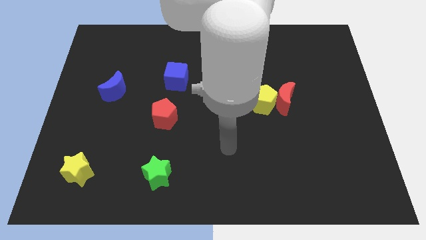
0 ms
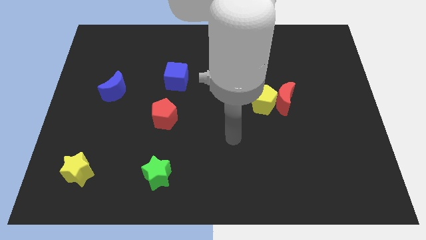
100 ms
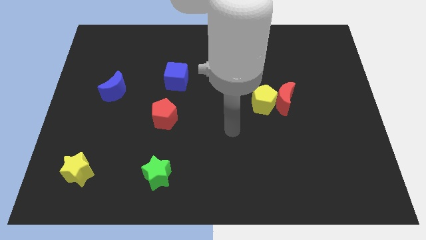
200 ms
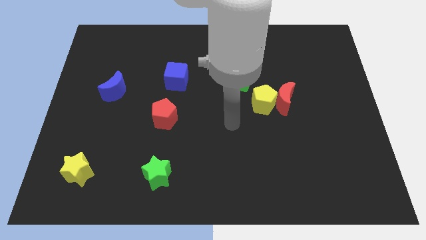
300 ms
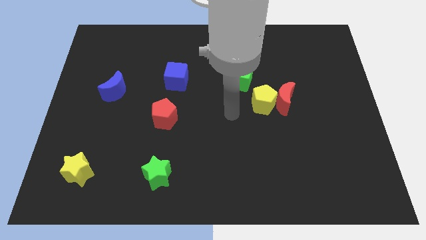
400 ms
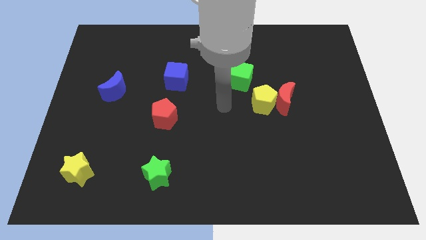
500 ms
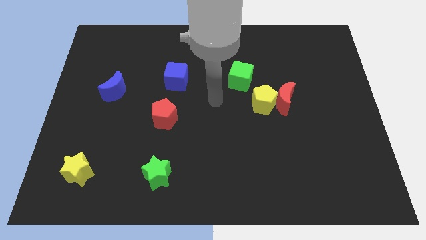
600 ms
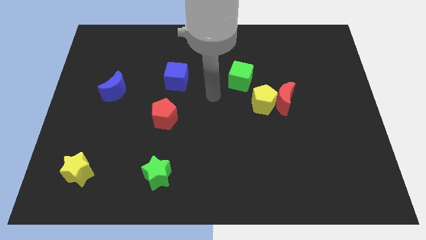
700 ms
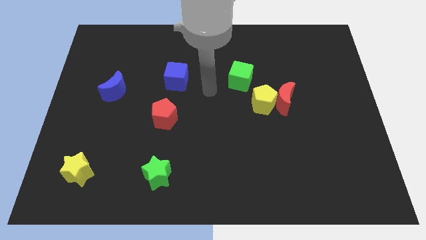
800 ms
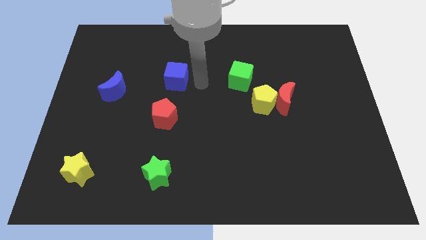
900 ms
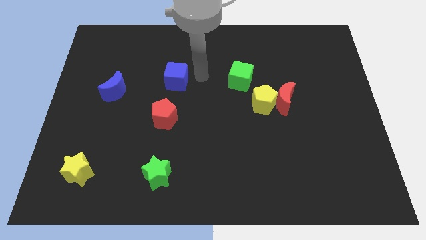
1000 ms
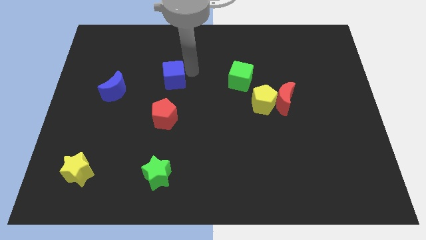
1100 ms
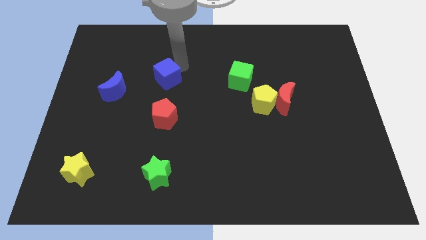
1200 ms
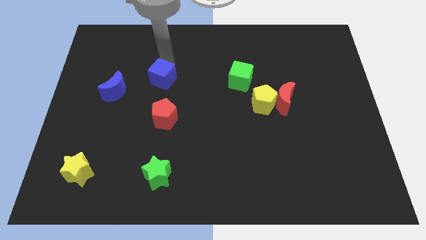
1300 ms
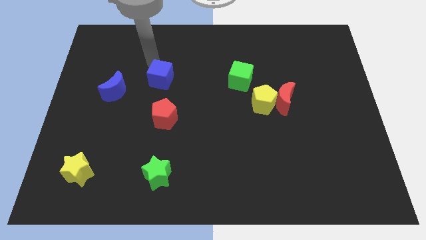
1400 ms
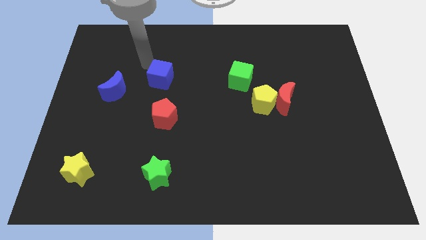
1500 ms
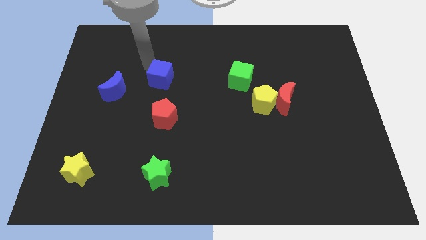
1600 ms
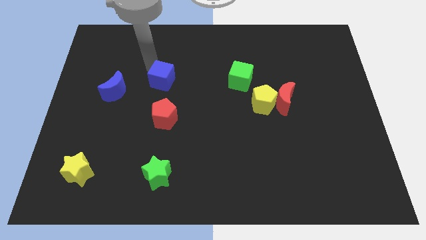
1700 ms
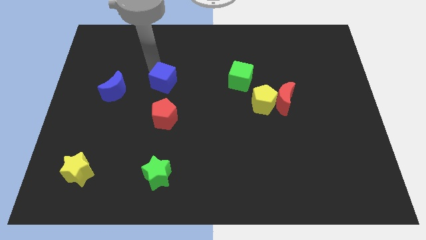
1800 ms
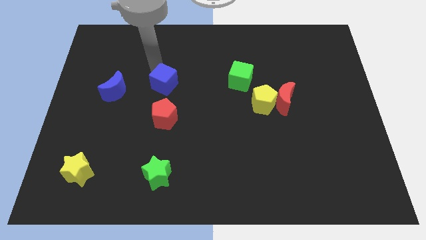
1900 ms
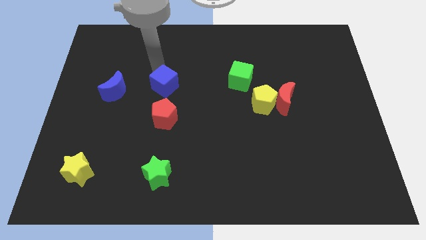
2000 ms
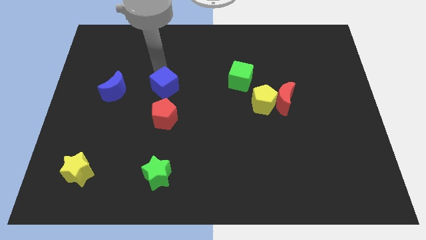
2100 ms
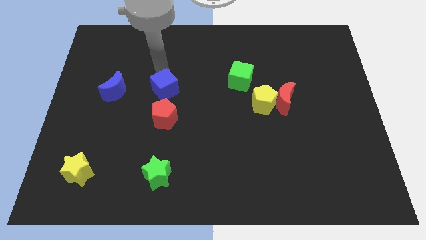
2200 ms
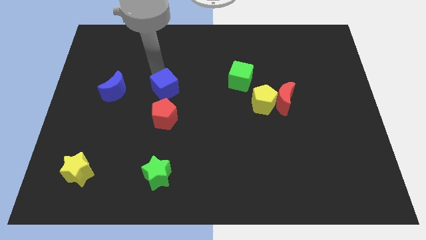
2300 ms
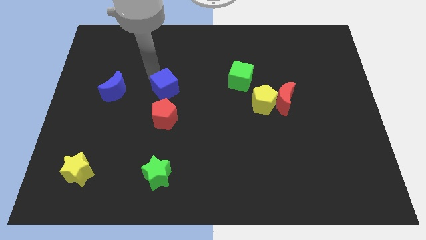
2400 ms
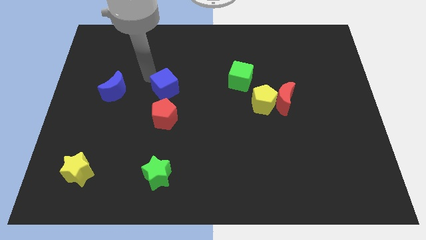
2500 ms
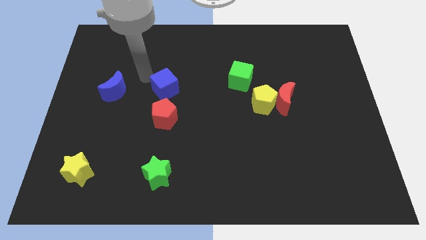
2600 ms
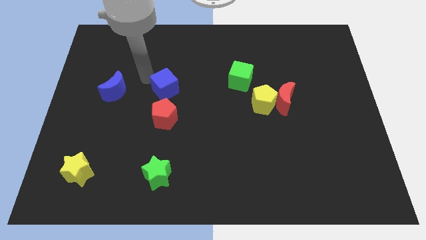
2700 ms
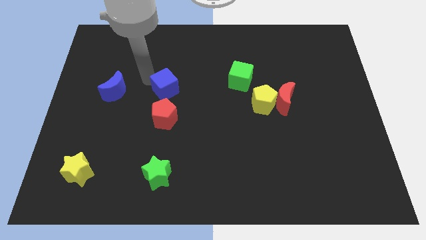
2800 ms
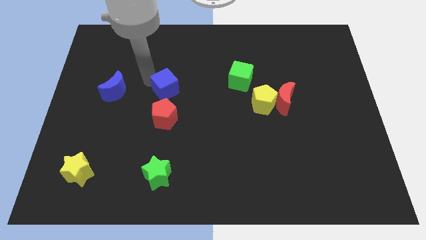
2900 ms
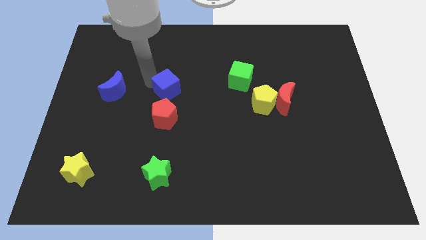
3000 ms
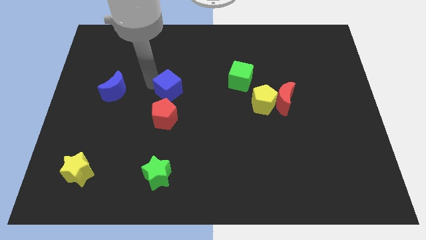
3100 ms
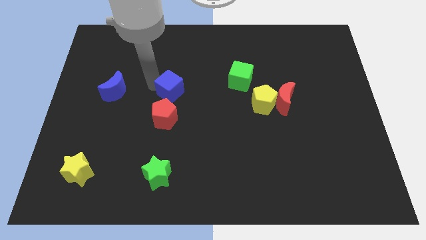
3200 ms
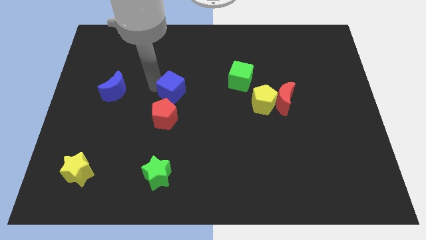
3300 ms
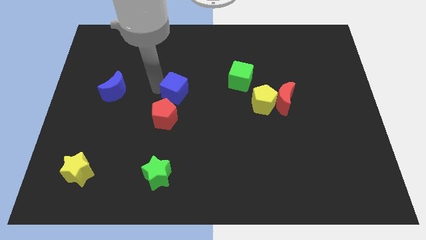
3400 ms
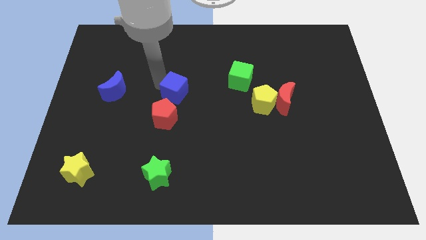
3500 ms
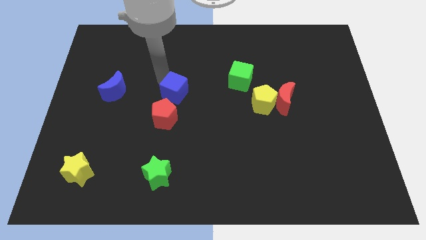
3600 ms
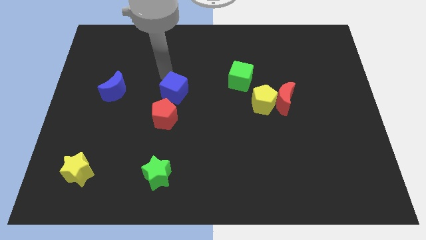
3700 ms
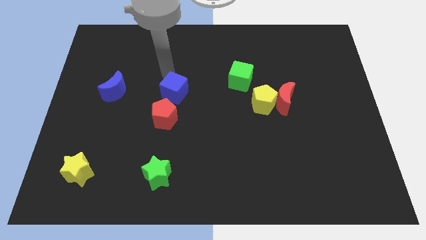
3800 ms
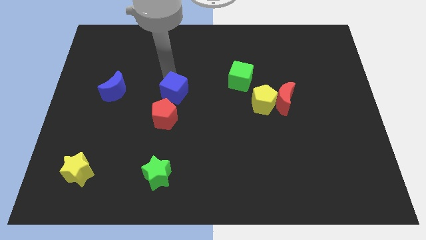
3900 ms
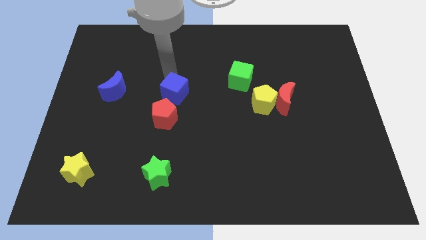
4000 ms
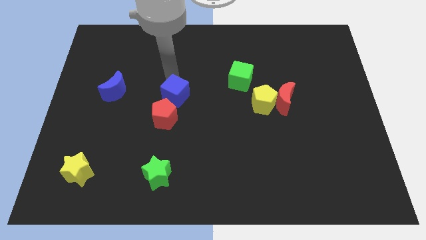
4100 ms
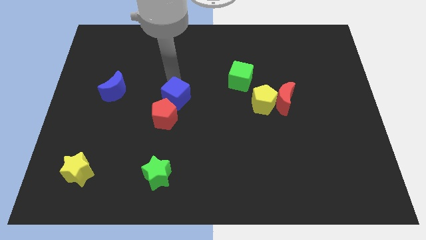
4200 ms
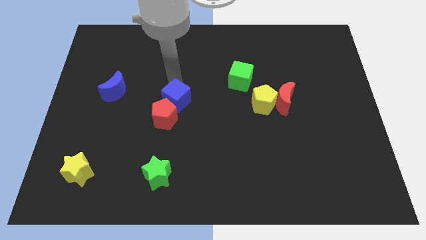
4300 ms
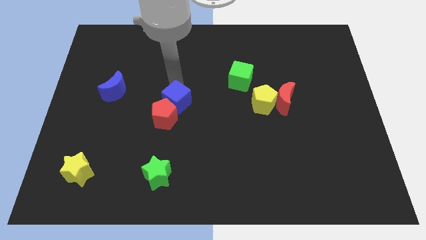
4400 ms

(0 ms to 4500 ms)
push the blue cube down somewhat

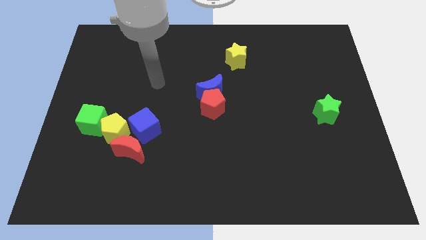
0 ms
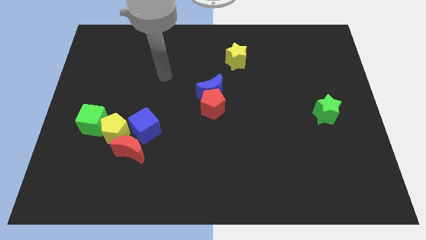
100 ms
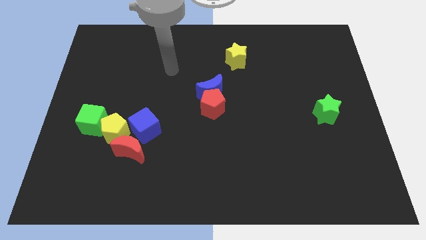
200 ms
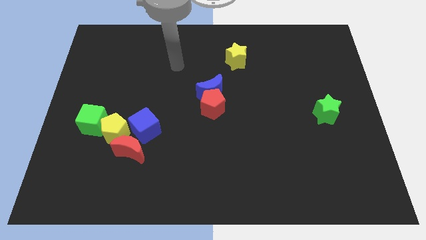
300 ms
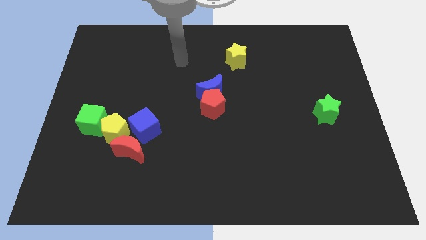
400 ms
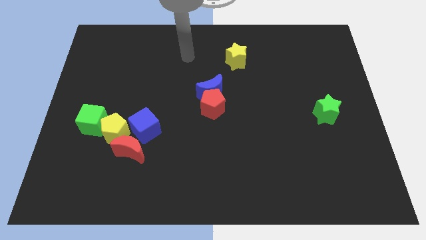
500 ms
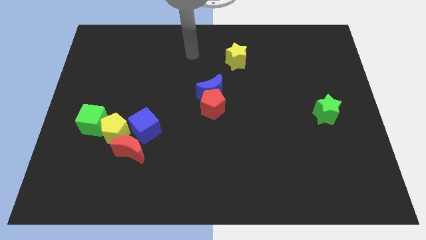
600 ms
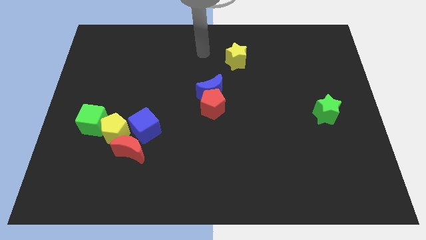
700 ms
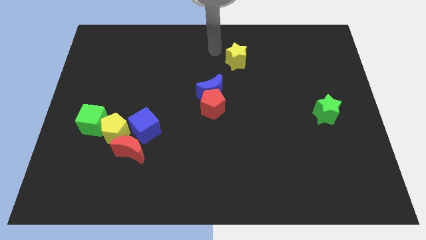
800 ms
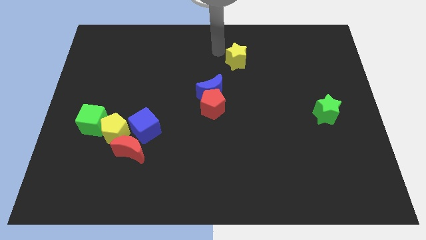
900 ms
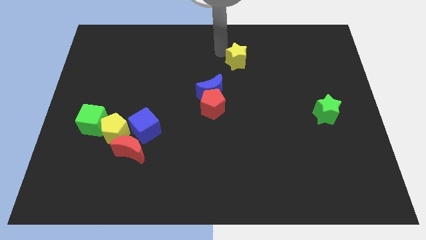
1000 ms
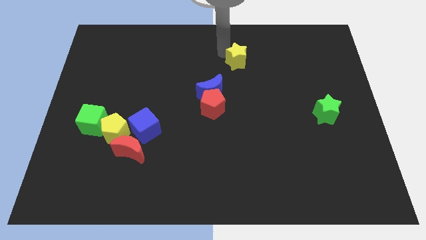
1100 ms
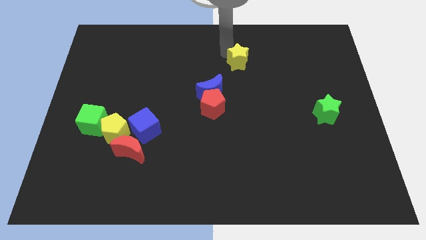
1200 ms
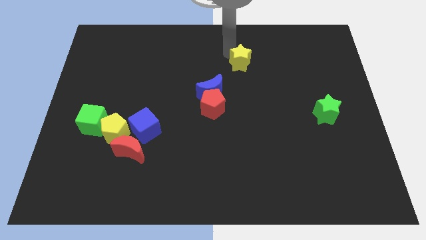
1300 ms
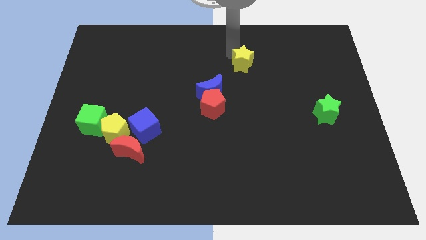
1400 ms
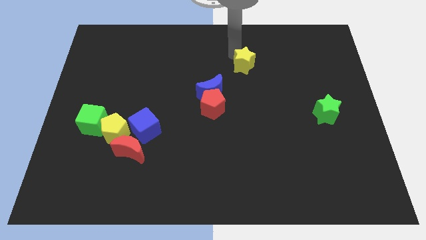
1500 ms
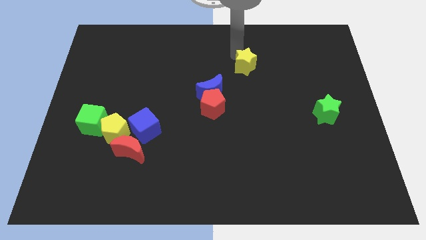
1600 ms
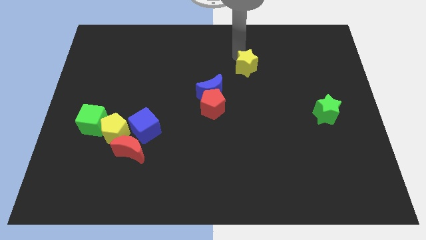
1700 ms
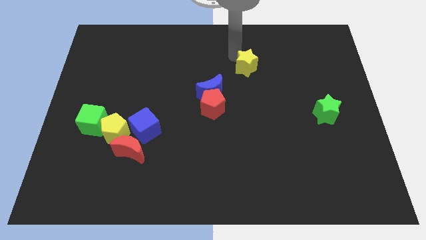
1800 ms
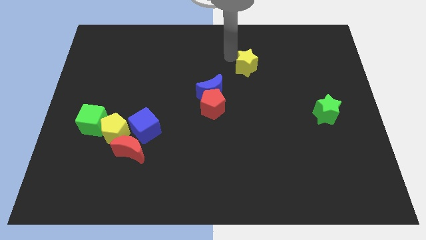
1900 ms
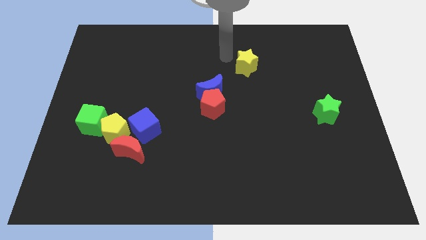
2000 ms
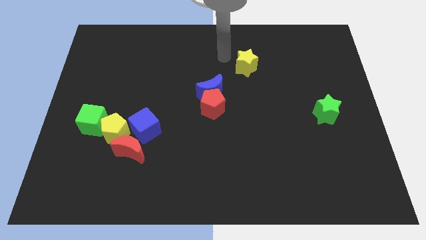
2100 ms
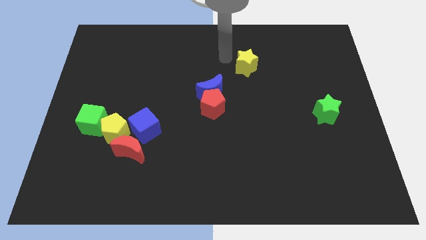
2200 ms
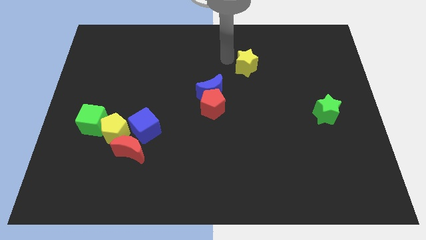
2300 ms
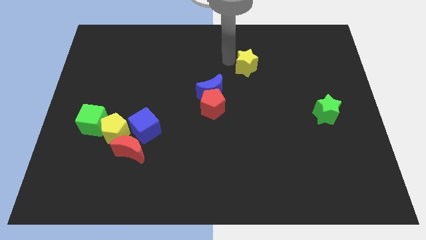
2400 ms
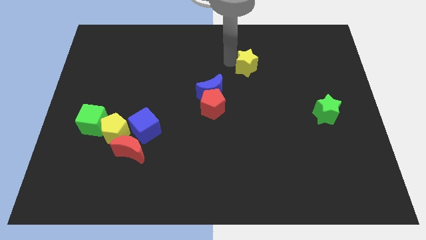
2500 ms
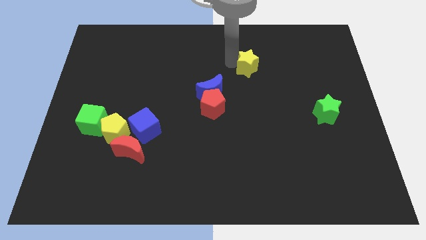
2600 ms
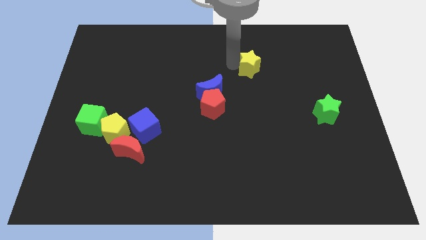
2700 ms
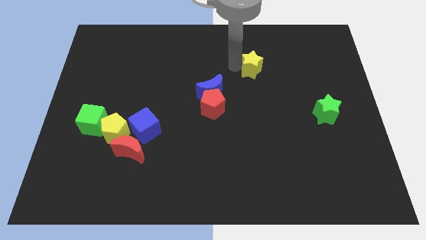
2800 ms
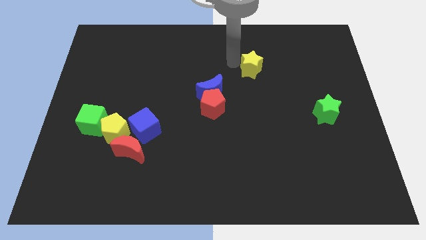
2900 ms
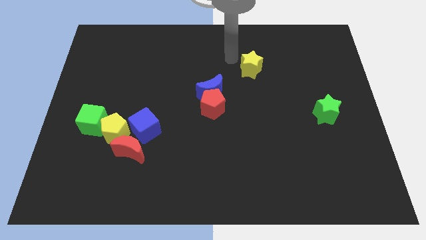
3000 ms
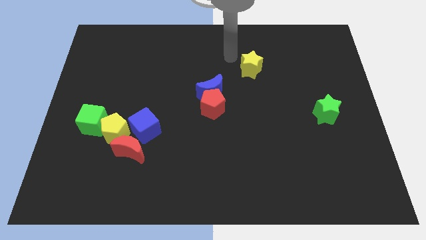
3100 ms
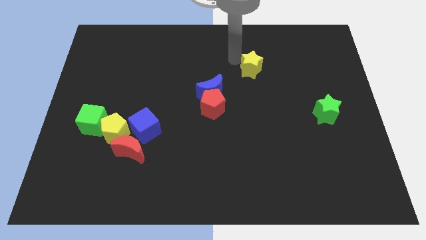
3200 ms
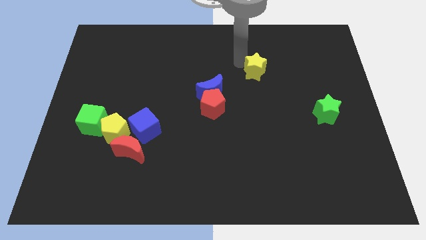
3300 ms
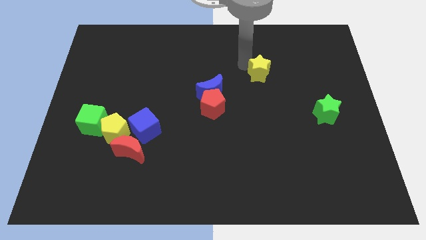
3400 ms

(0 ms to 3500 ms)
slightly push the yellow star downwards and right diagonally
